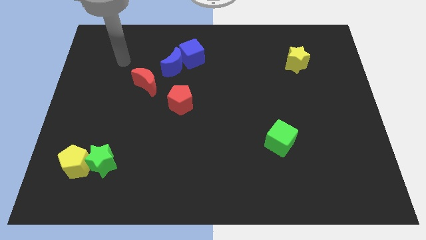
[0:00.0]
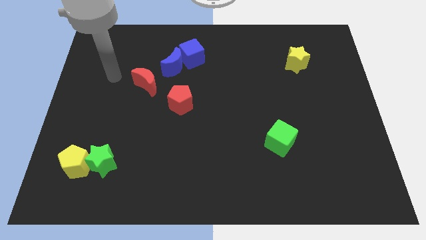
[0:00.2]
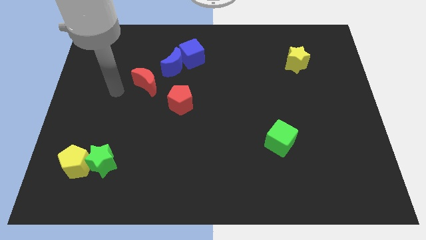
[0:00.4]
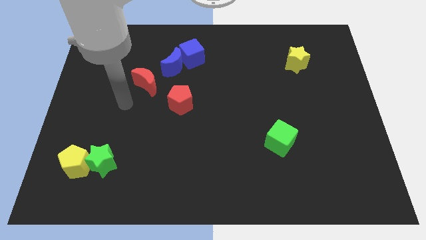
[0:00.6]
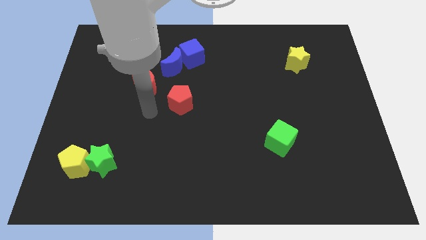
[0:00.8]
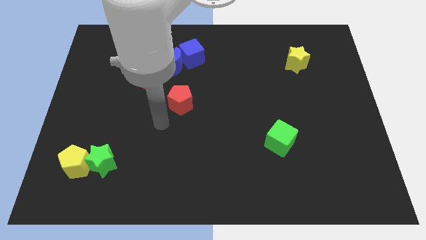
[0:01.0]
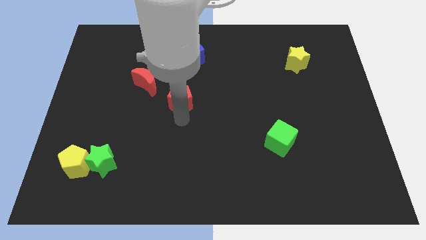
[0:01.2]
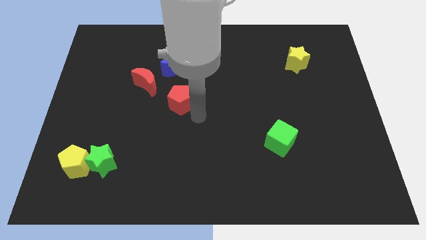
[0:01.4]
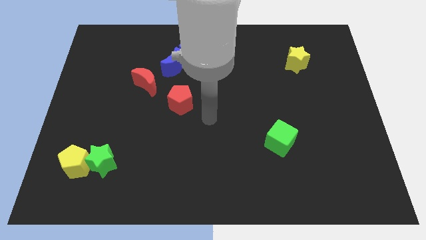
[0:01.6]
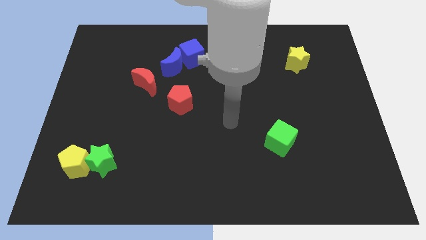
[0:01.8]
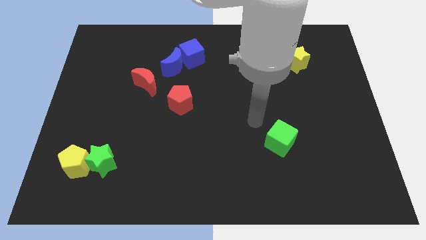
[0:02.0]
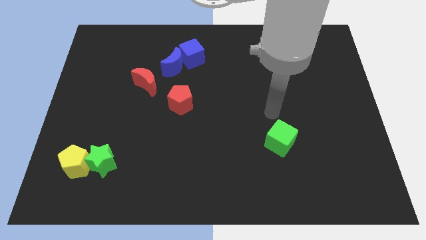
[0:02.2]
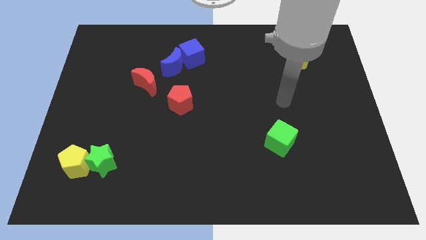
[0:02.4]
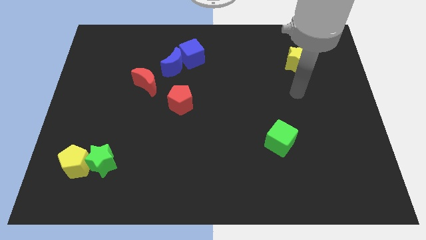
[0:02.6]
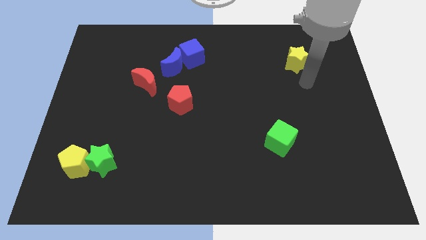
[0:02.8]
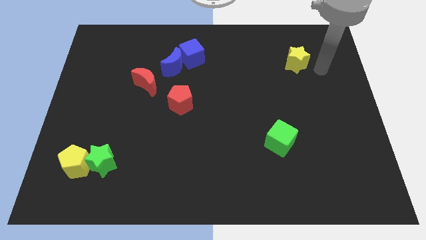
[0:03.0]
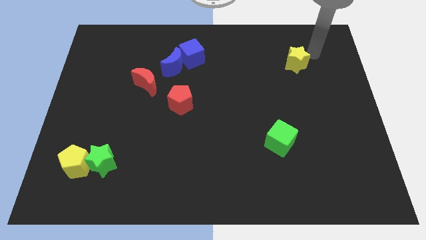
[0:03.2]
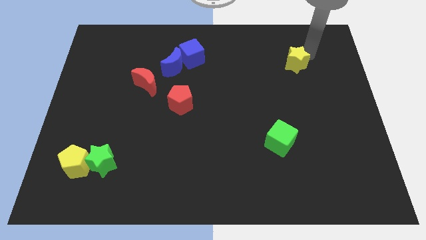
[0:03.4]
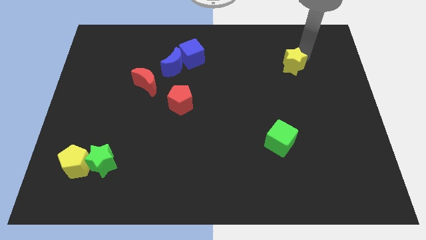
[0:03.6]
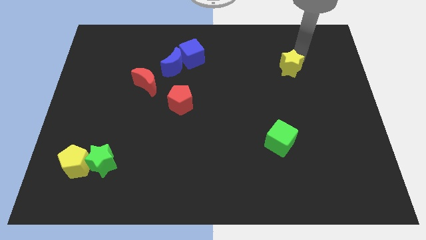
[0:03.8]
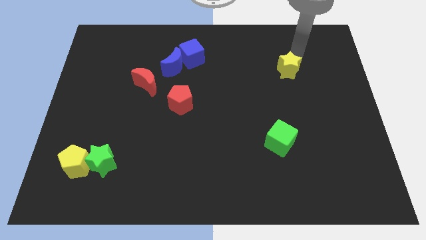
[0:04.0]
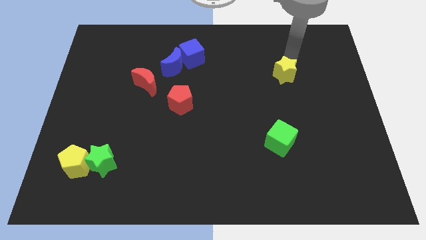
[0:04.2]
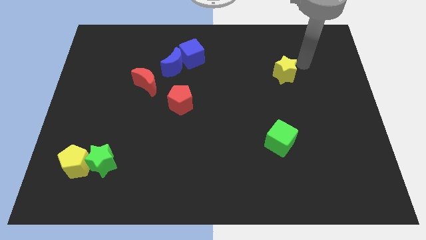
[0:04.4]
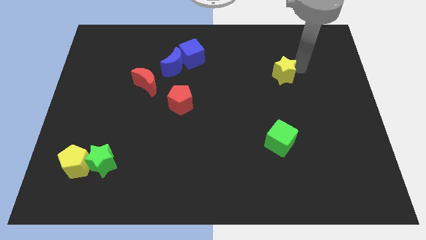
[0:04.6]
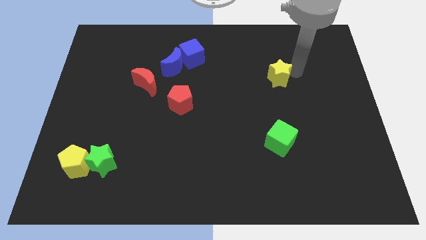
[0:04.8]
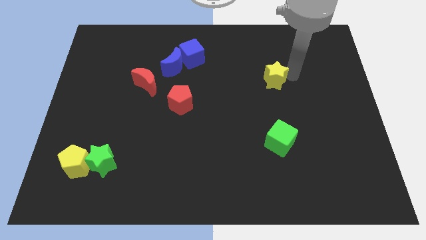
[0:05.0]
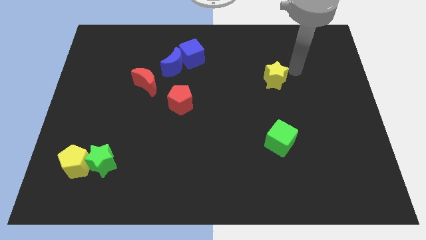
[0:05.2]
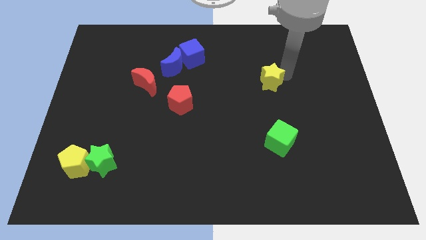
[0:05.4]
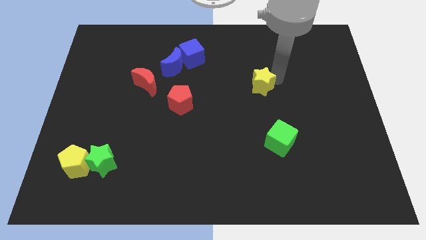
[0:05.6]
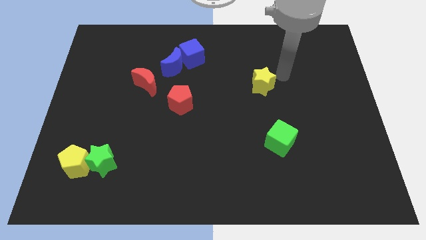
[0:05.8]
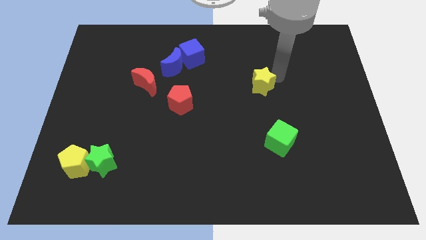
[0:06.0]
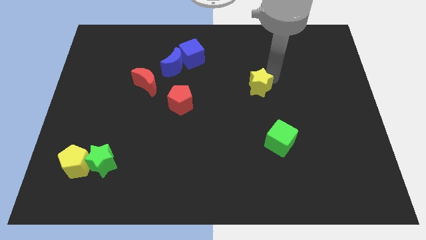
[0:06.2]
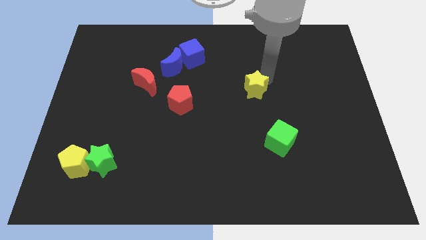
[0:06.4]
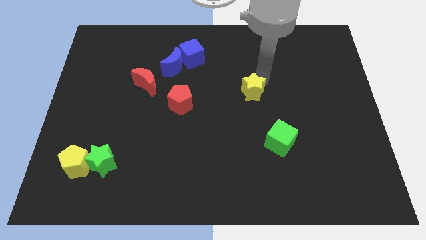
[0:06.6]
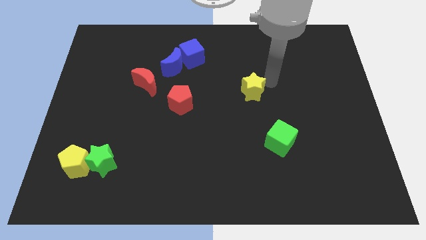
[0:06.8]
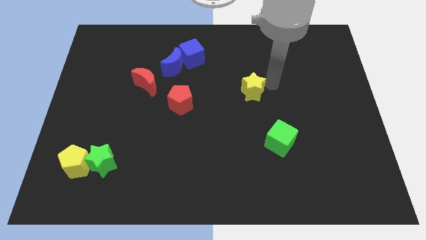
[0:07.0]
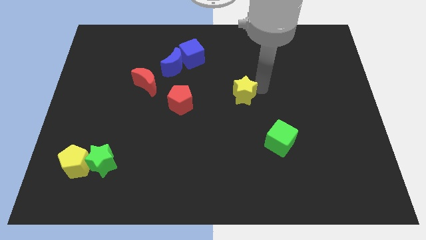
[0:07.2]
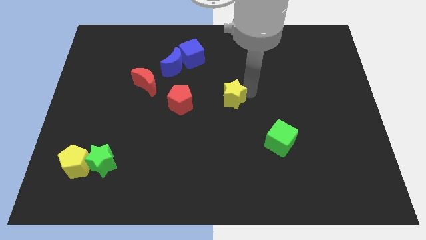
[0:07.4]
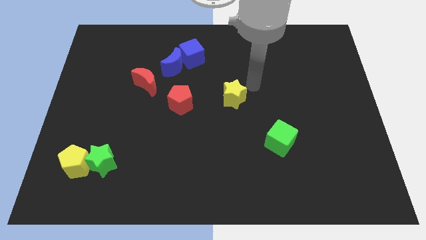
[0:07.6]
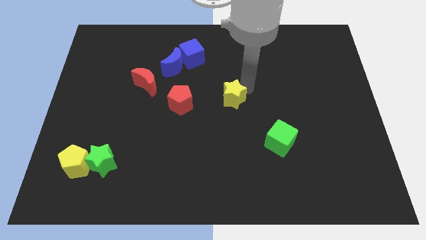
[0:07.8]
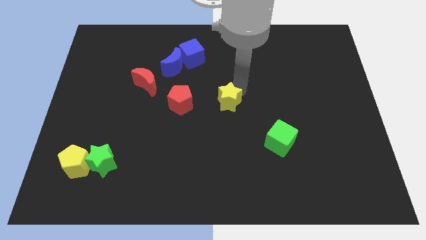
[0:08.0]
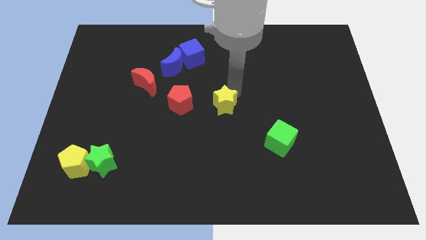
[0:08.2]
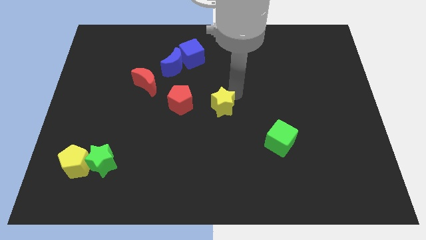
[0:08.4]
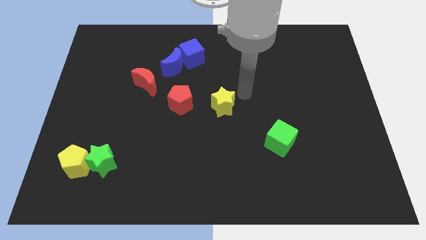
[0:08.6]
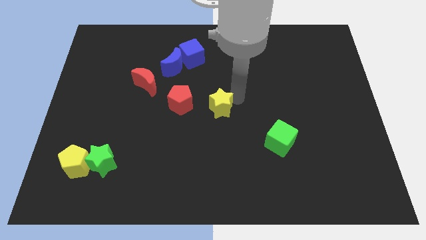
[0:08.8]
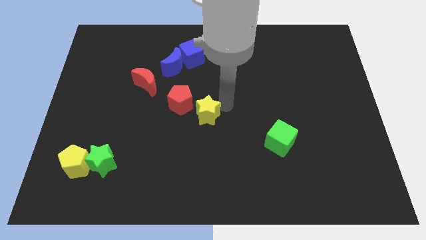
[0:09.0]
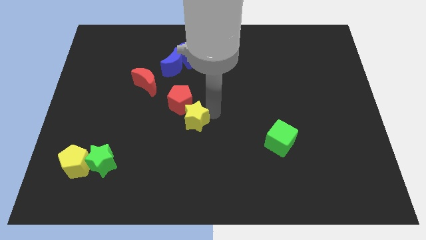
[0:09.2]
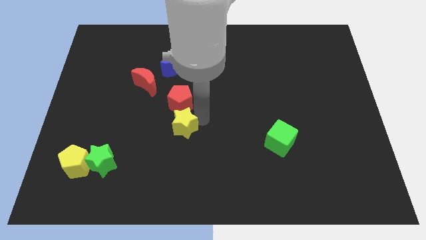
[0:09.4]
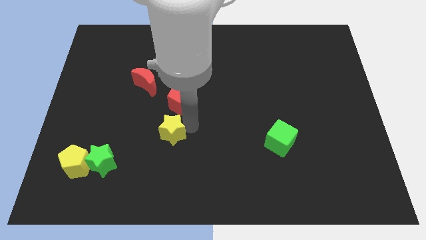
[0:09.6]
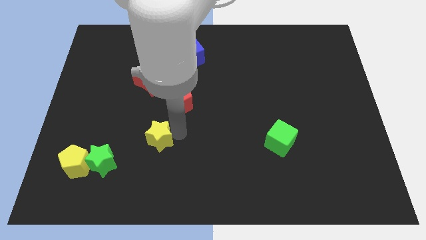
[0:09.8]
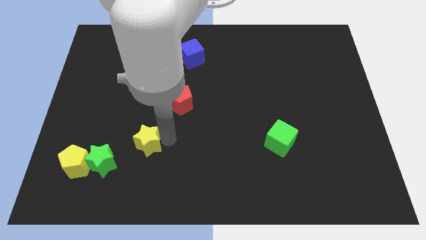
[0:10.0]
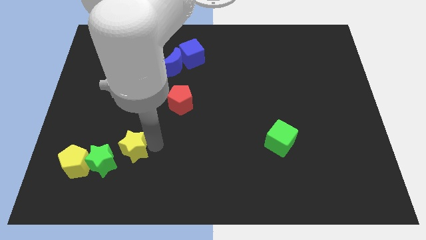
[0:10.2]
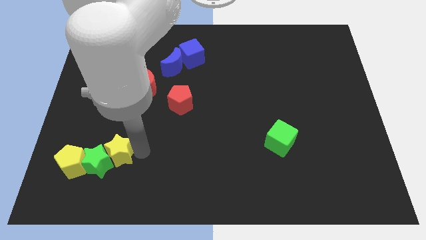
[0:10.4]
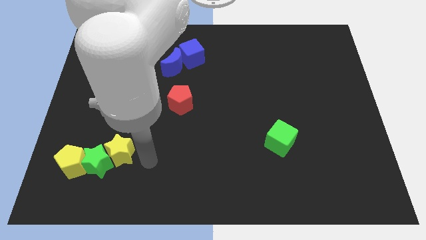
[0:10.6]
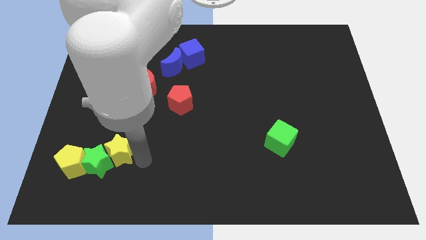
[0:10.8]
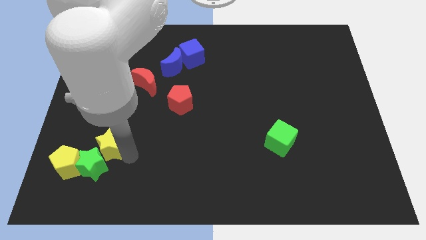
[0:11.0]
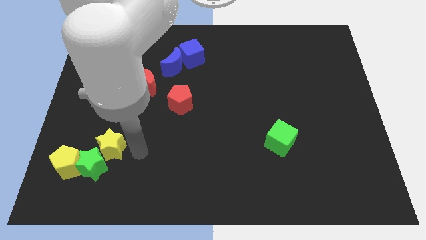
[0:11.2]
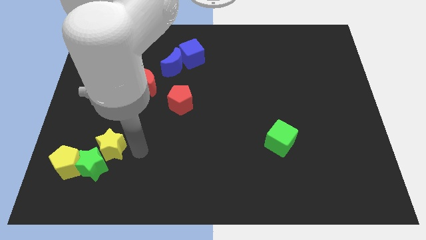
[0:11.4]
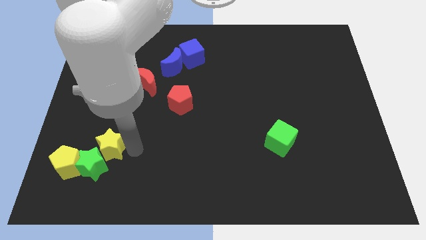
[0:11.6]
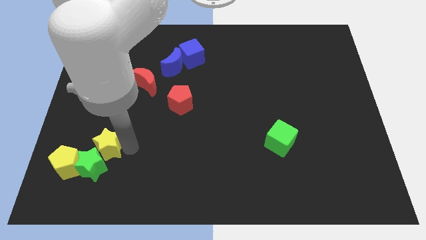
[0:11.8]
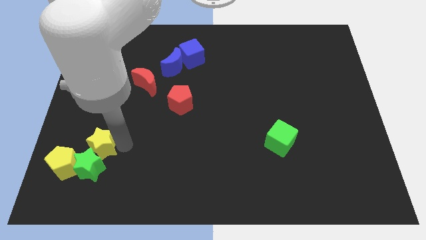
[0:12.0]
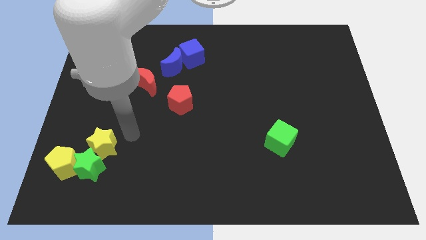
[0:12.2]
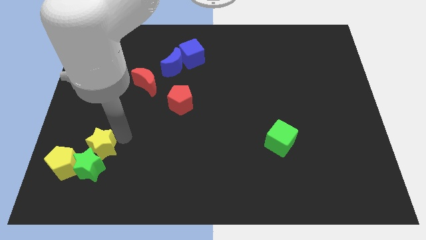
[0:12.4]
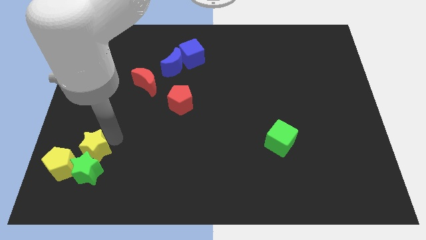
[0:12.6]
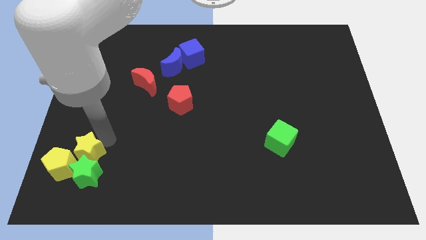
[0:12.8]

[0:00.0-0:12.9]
slide the yellow star towards the yellow pentagon

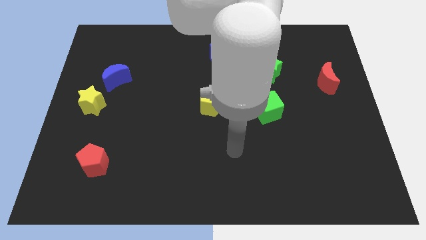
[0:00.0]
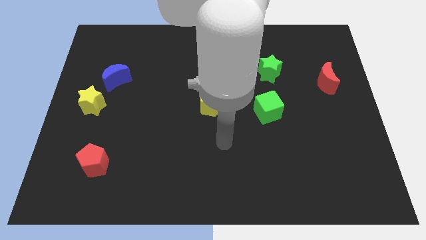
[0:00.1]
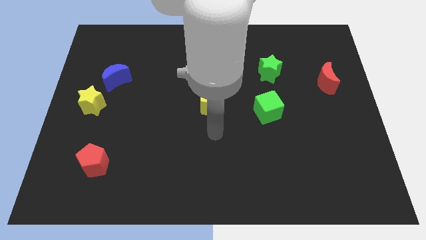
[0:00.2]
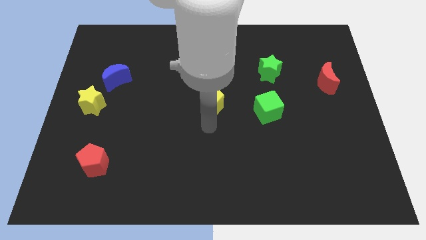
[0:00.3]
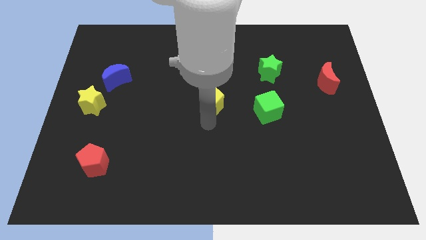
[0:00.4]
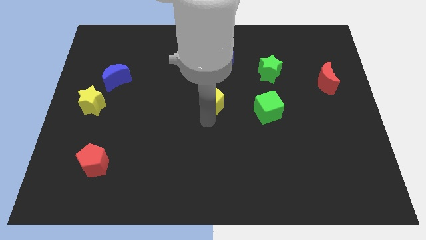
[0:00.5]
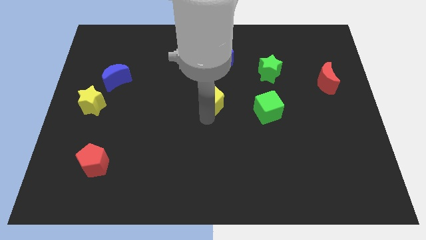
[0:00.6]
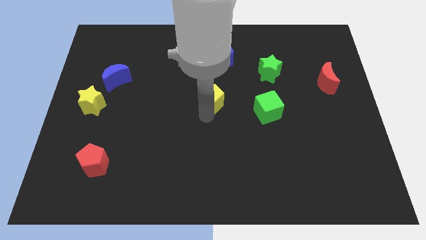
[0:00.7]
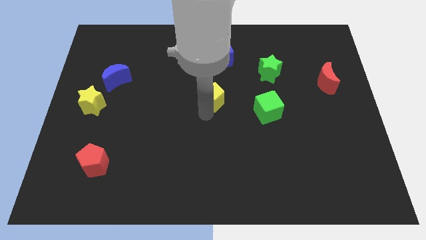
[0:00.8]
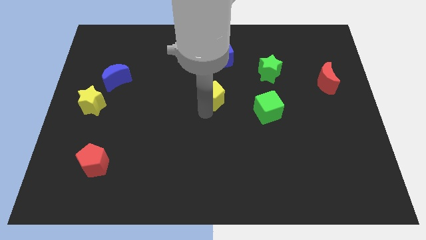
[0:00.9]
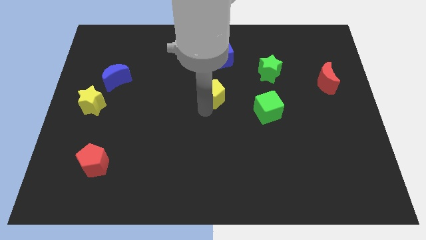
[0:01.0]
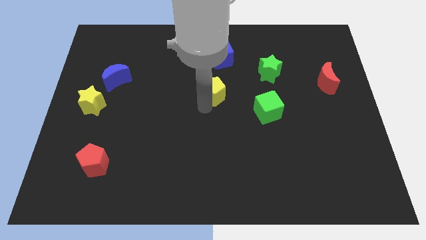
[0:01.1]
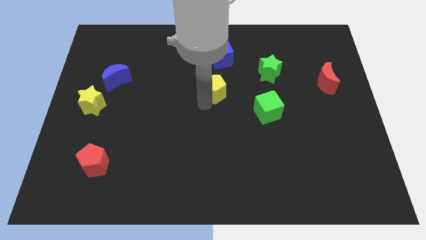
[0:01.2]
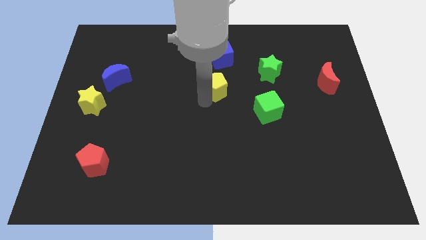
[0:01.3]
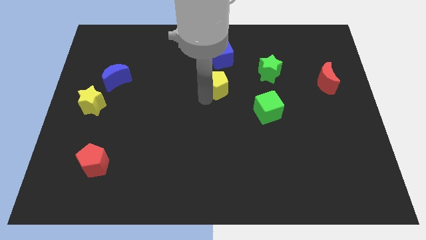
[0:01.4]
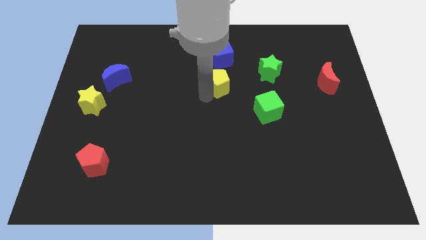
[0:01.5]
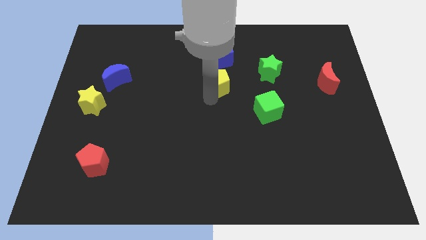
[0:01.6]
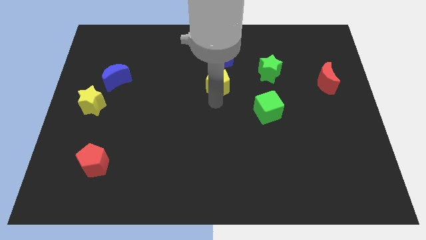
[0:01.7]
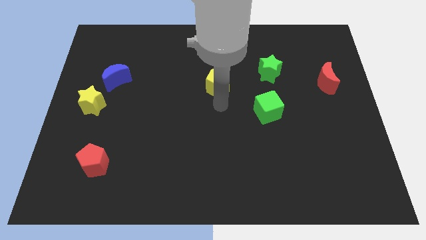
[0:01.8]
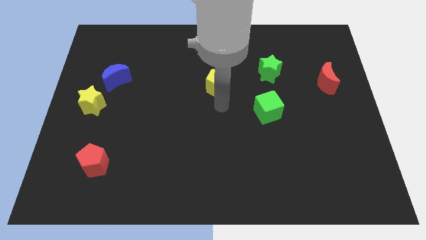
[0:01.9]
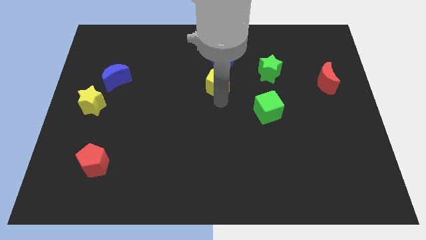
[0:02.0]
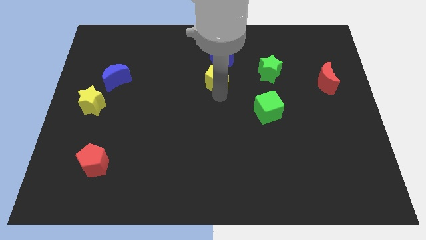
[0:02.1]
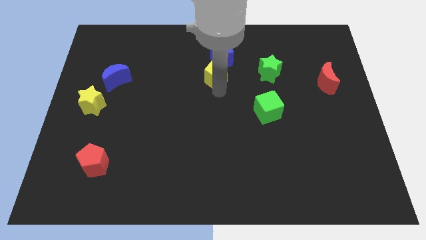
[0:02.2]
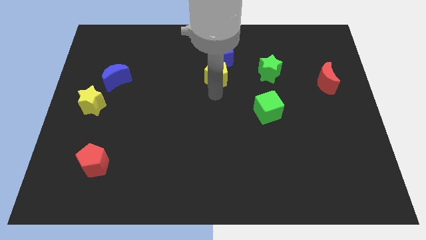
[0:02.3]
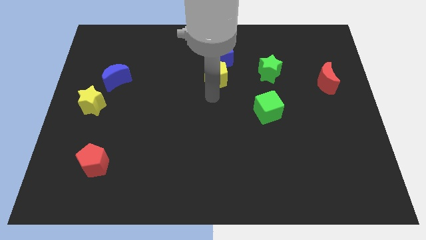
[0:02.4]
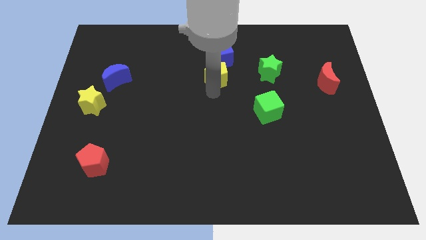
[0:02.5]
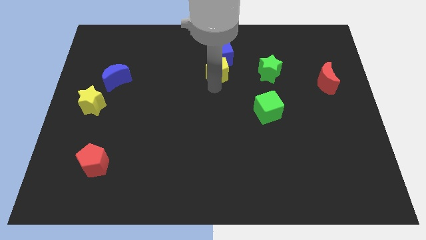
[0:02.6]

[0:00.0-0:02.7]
move the yellow pentagon next to the blue cube
